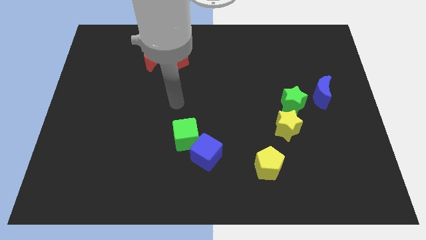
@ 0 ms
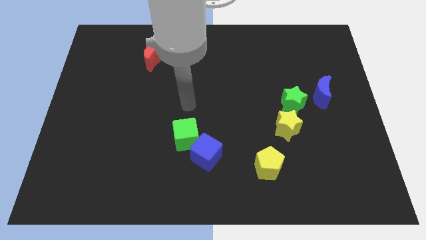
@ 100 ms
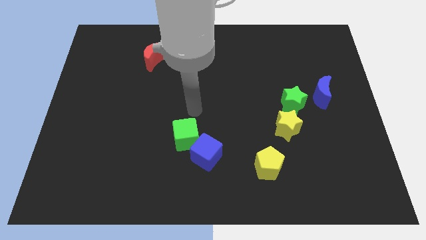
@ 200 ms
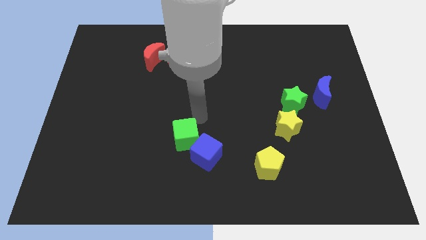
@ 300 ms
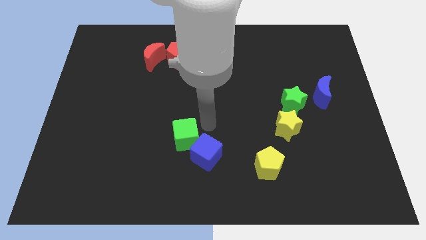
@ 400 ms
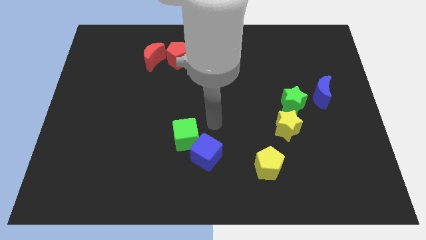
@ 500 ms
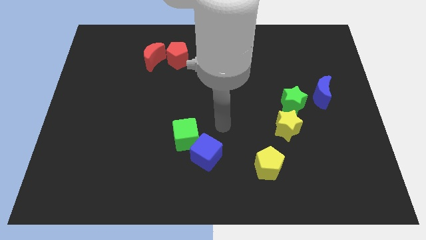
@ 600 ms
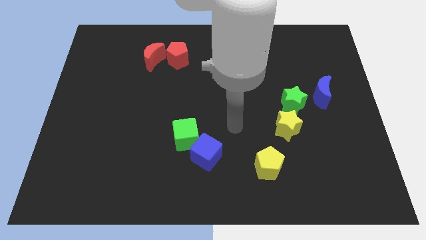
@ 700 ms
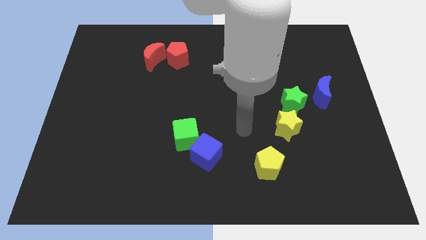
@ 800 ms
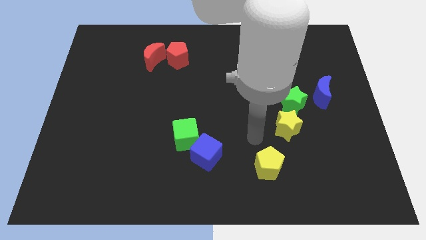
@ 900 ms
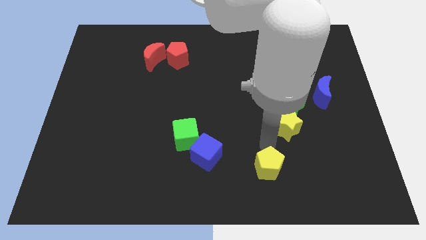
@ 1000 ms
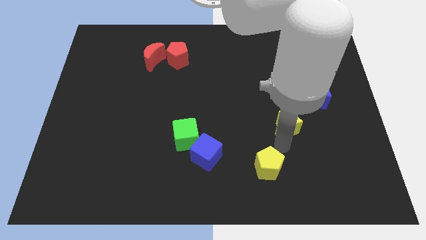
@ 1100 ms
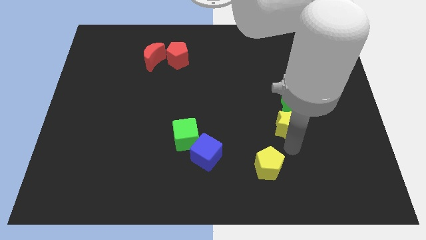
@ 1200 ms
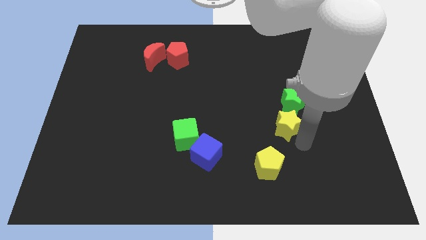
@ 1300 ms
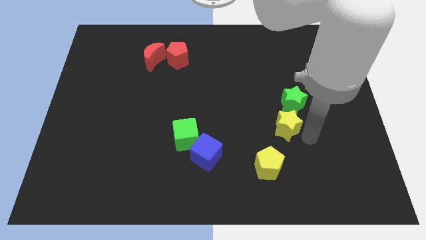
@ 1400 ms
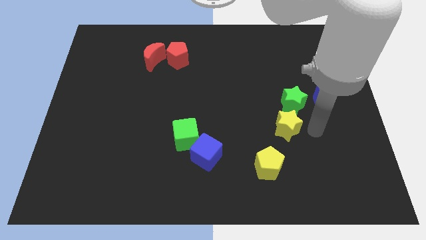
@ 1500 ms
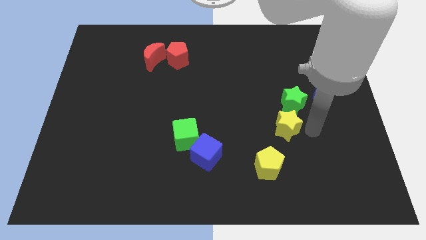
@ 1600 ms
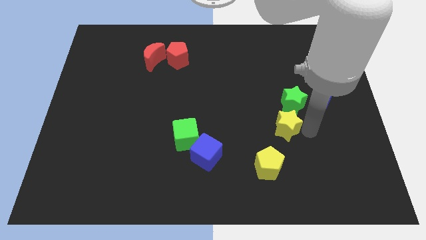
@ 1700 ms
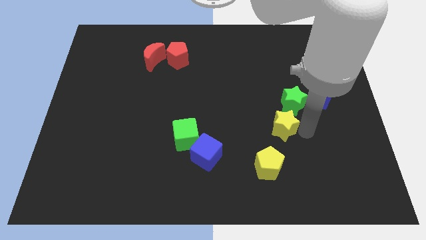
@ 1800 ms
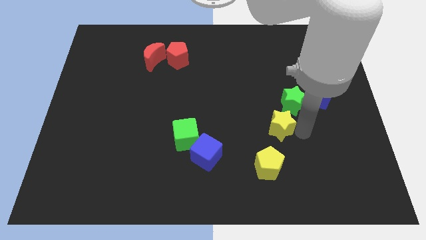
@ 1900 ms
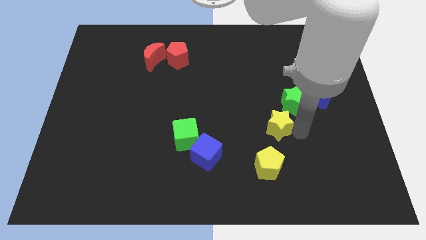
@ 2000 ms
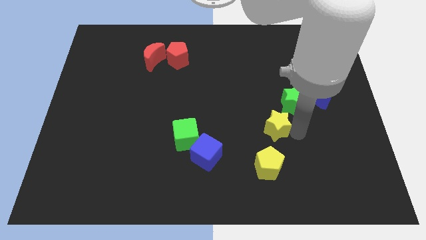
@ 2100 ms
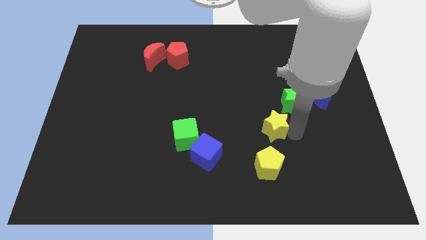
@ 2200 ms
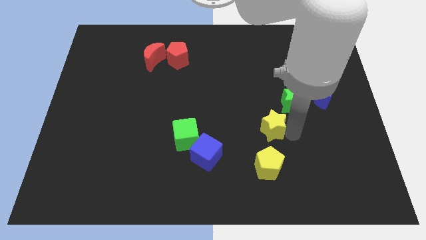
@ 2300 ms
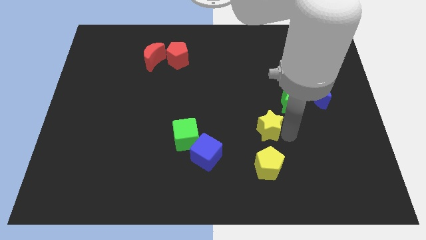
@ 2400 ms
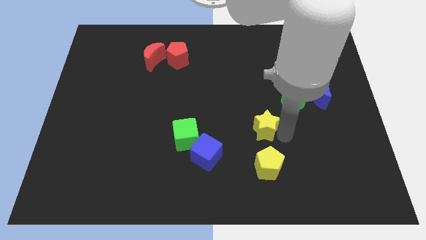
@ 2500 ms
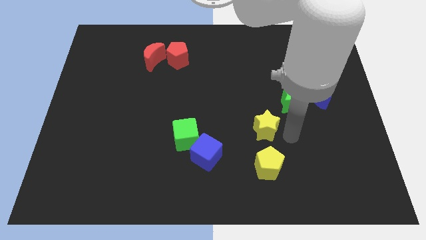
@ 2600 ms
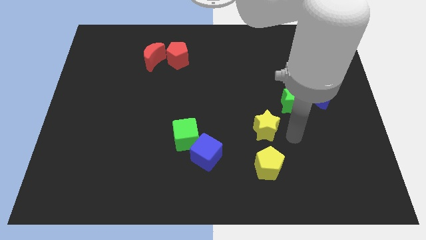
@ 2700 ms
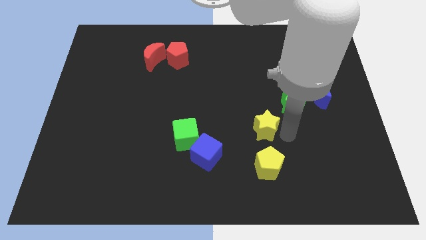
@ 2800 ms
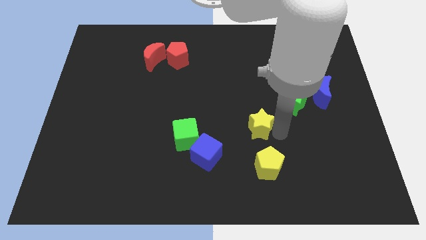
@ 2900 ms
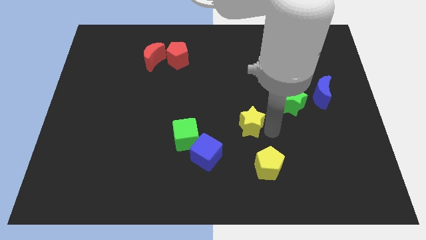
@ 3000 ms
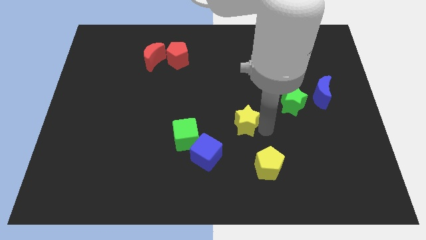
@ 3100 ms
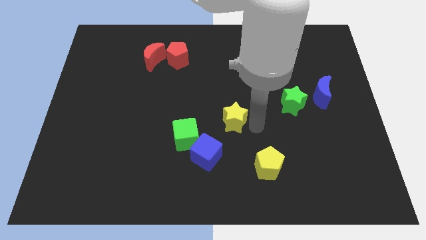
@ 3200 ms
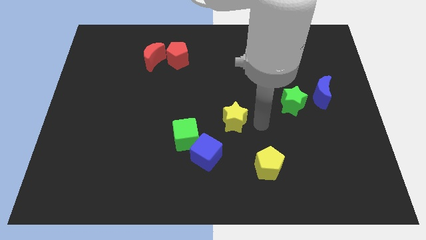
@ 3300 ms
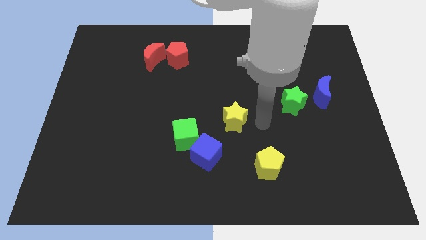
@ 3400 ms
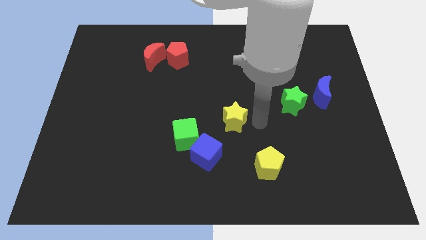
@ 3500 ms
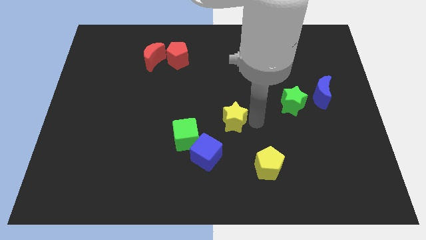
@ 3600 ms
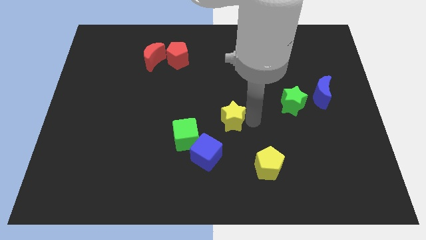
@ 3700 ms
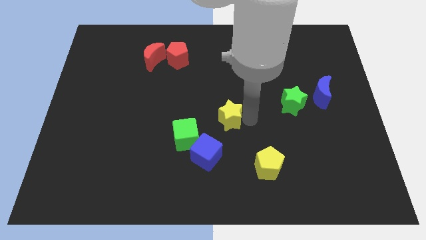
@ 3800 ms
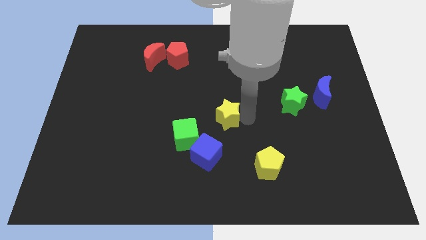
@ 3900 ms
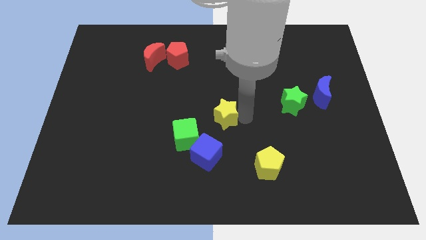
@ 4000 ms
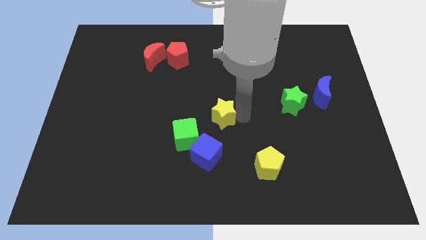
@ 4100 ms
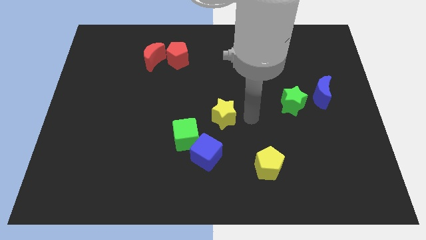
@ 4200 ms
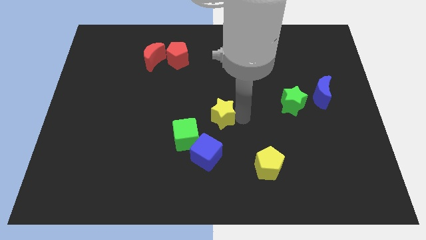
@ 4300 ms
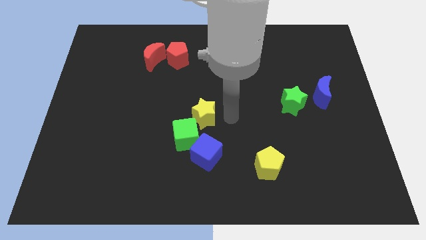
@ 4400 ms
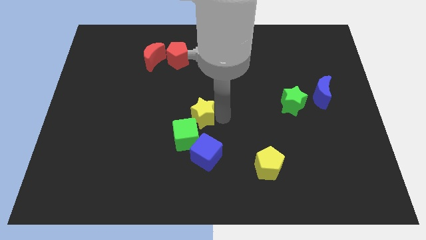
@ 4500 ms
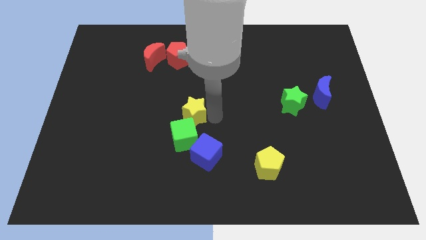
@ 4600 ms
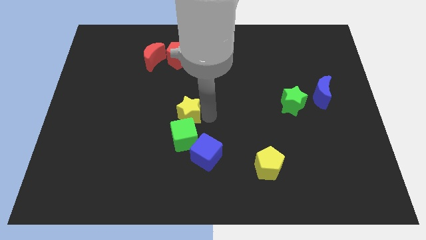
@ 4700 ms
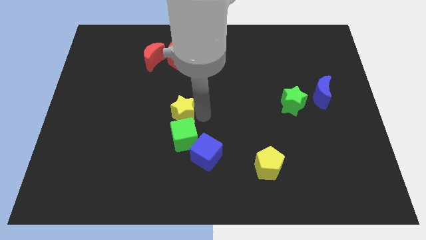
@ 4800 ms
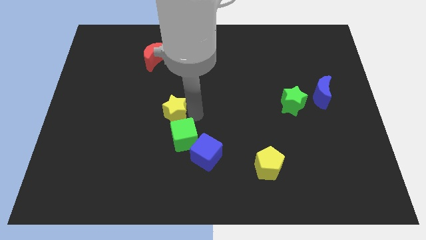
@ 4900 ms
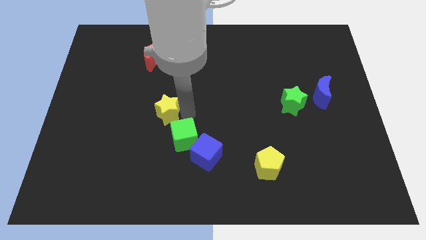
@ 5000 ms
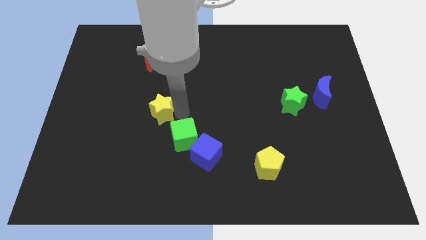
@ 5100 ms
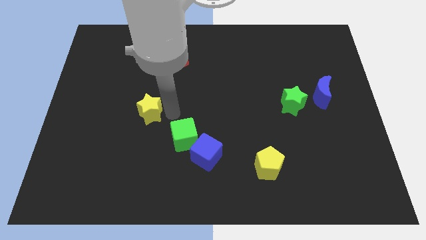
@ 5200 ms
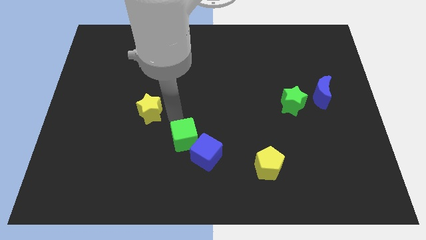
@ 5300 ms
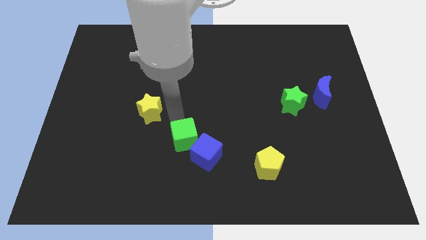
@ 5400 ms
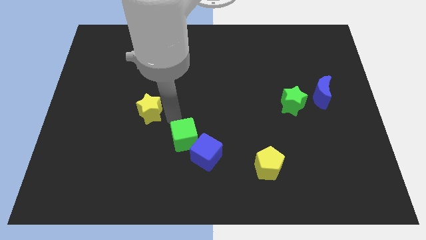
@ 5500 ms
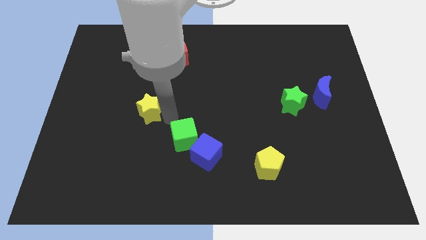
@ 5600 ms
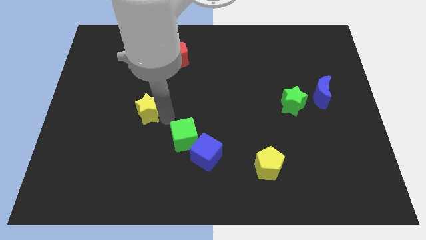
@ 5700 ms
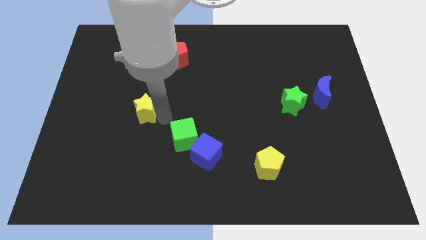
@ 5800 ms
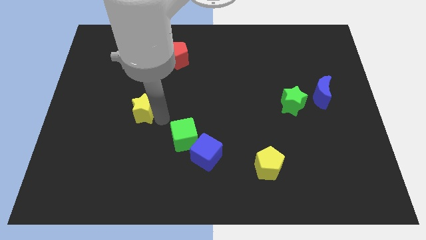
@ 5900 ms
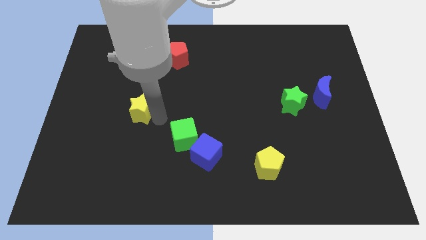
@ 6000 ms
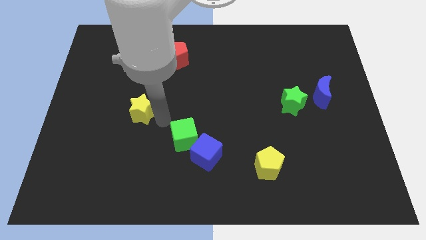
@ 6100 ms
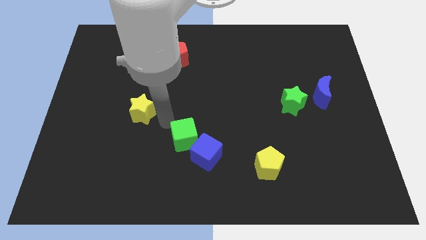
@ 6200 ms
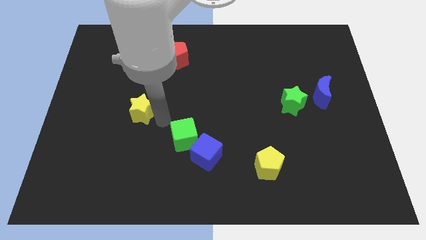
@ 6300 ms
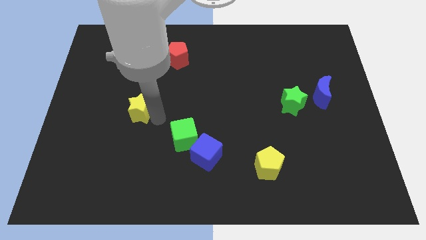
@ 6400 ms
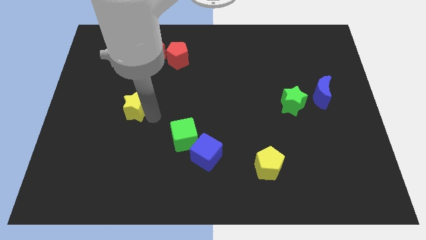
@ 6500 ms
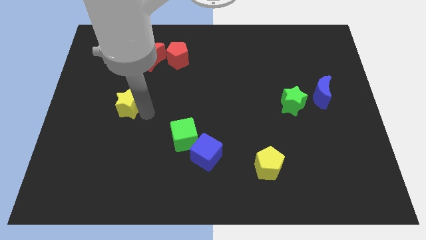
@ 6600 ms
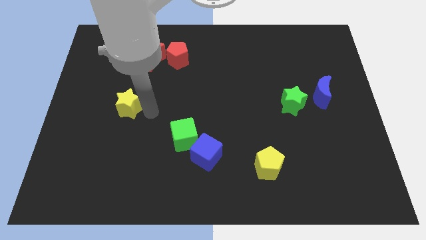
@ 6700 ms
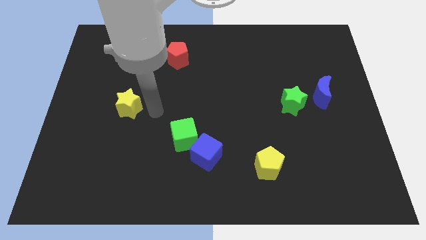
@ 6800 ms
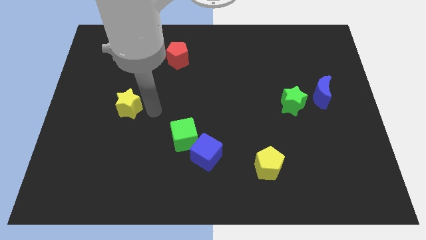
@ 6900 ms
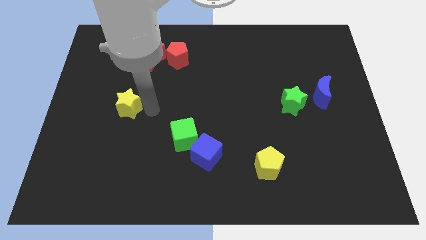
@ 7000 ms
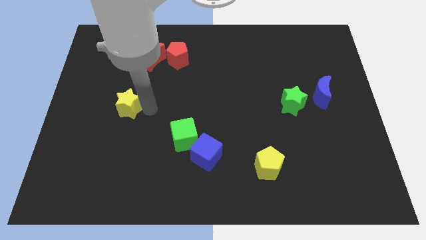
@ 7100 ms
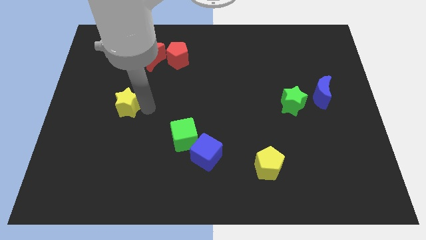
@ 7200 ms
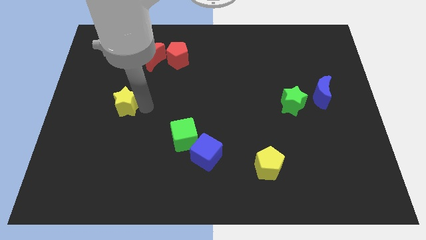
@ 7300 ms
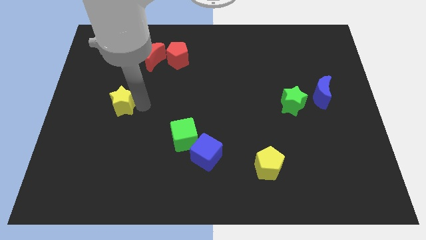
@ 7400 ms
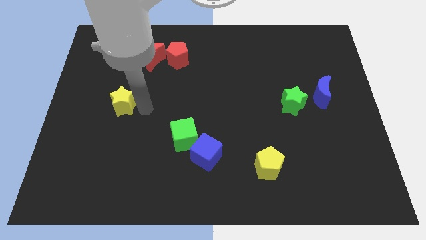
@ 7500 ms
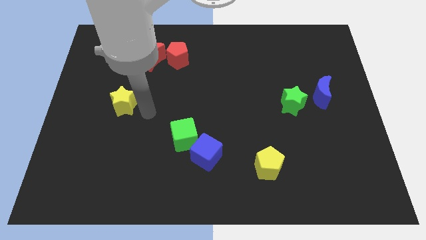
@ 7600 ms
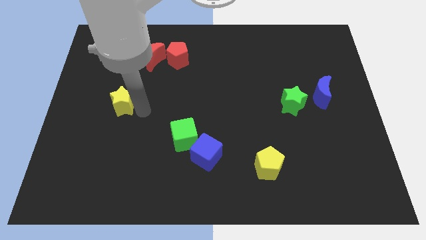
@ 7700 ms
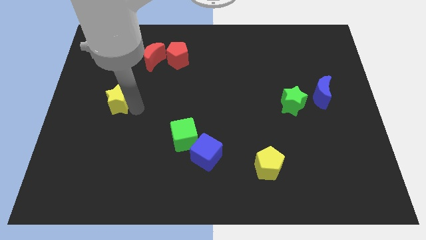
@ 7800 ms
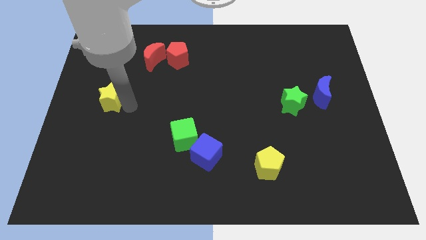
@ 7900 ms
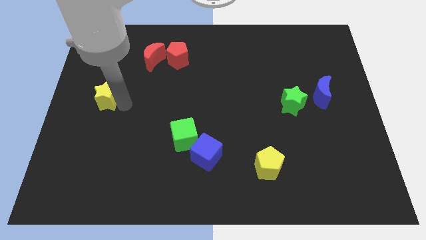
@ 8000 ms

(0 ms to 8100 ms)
put the yellow star to the left side
